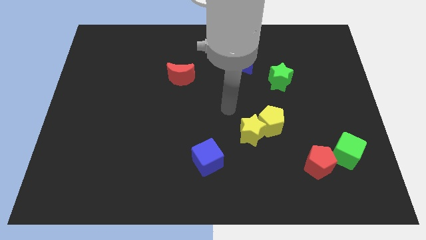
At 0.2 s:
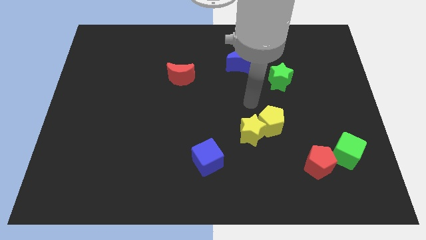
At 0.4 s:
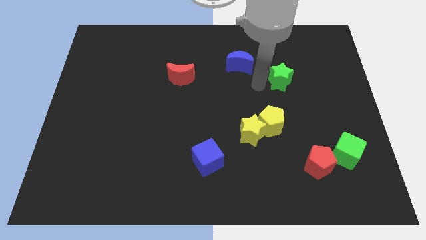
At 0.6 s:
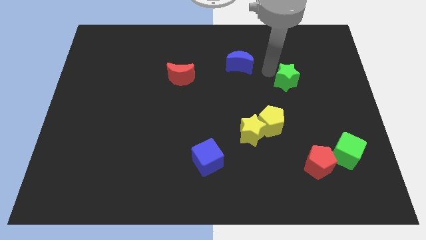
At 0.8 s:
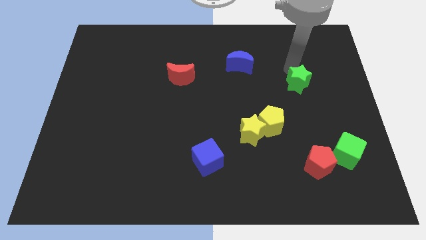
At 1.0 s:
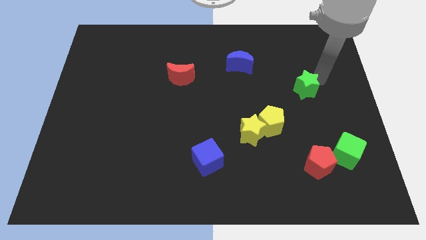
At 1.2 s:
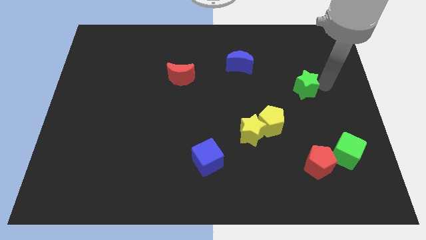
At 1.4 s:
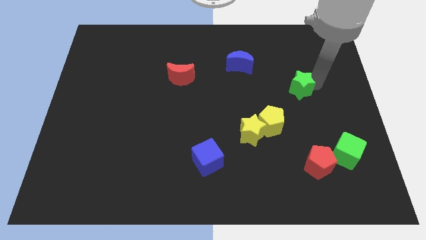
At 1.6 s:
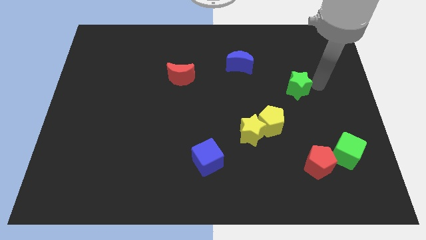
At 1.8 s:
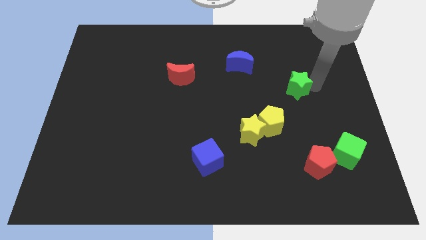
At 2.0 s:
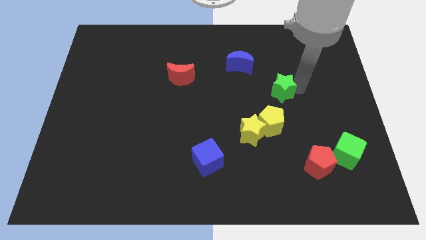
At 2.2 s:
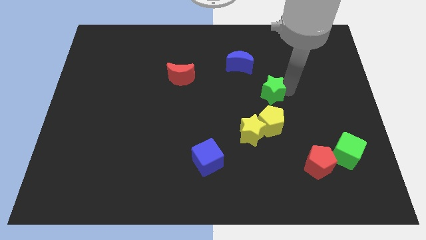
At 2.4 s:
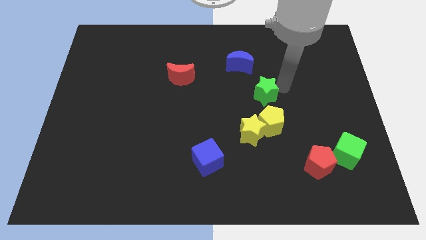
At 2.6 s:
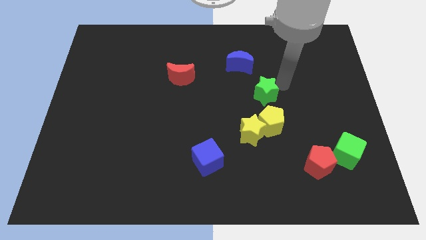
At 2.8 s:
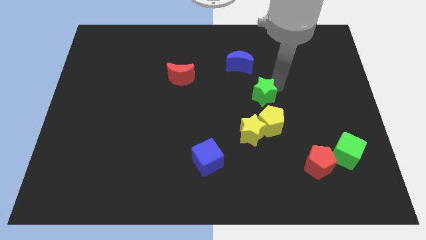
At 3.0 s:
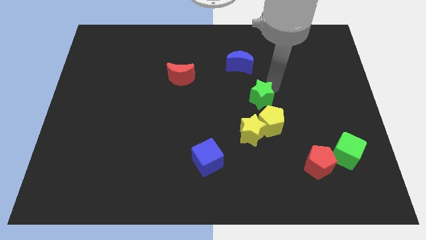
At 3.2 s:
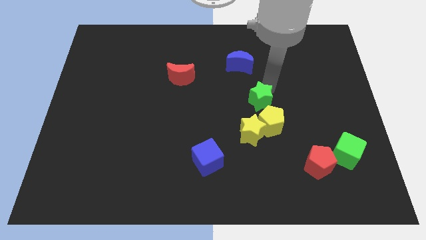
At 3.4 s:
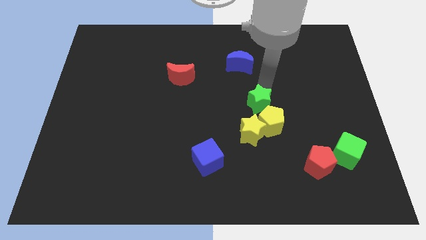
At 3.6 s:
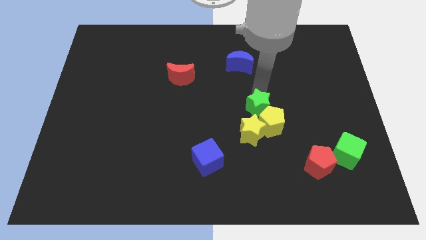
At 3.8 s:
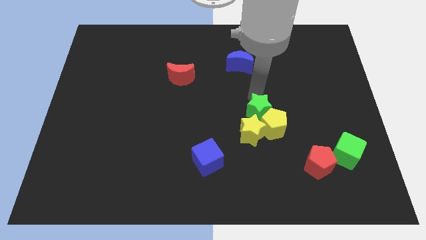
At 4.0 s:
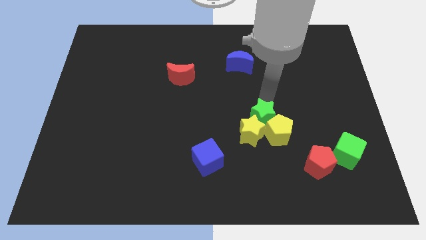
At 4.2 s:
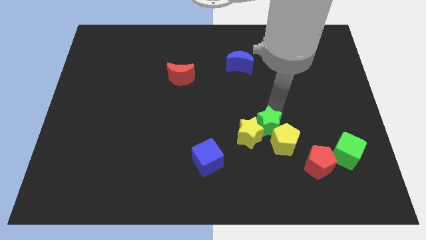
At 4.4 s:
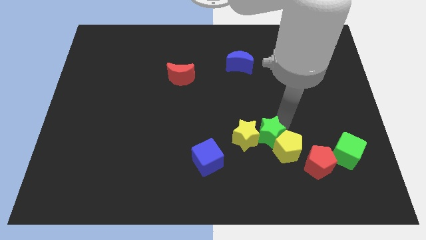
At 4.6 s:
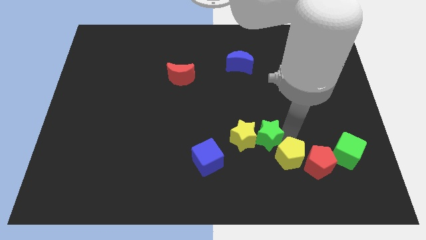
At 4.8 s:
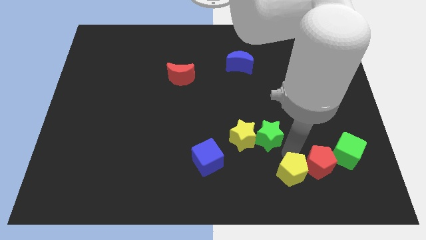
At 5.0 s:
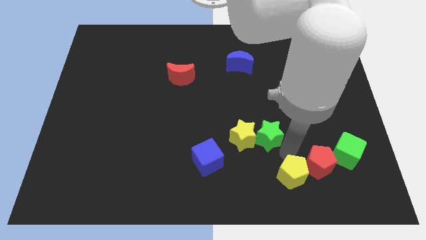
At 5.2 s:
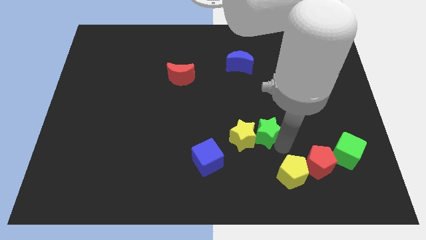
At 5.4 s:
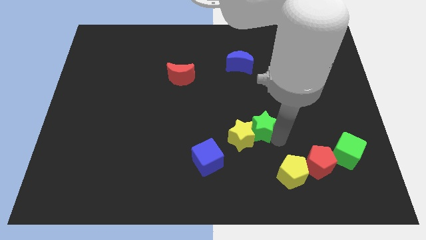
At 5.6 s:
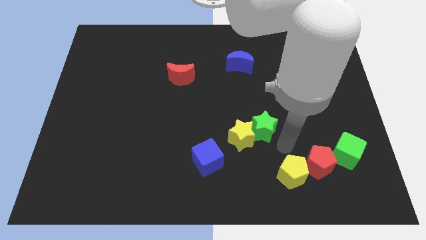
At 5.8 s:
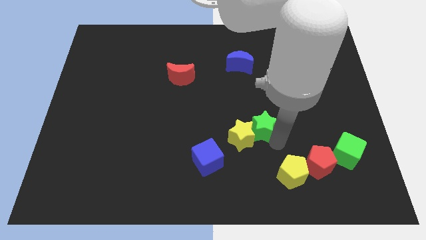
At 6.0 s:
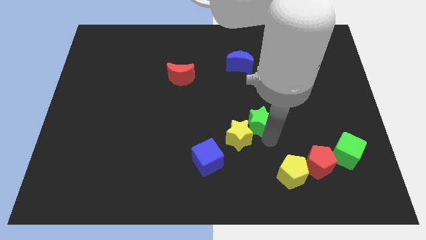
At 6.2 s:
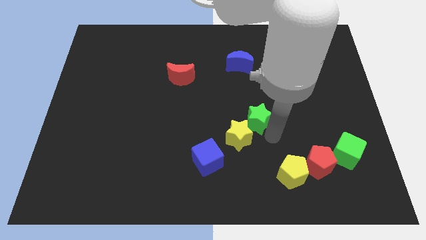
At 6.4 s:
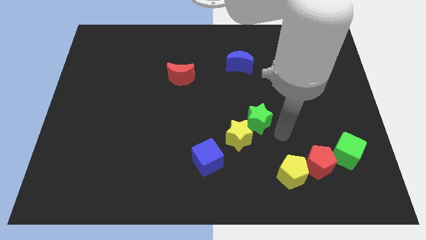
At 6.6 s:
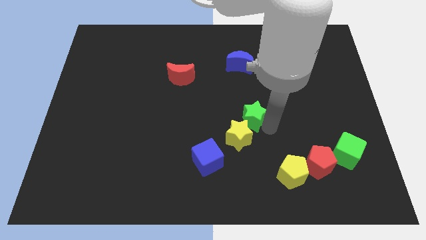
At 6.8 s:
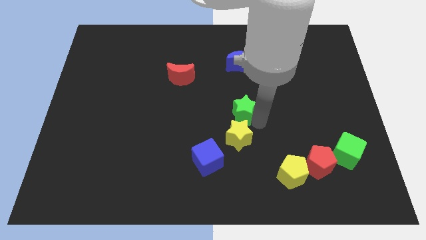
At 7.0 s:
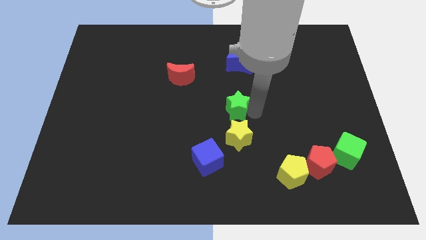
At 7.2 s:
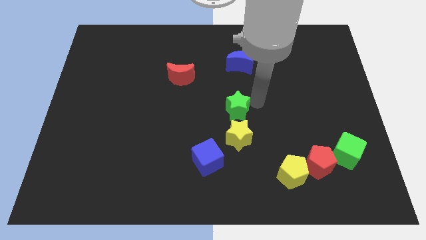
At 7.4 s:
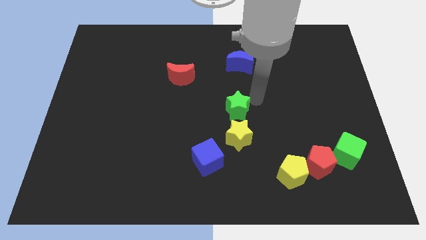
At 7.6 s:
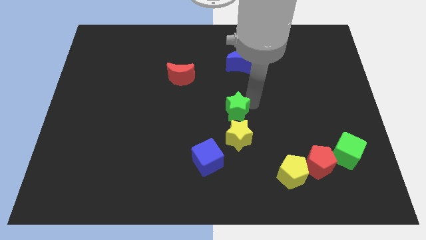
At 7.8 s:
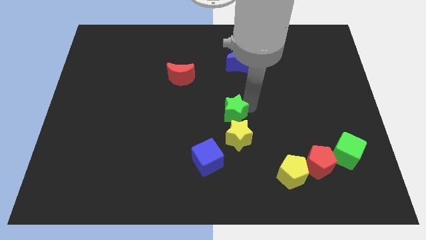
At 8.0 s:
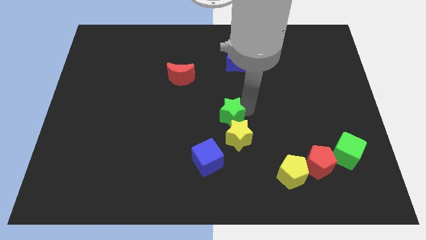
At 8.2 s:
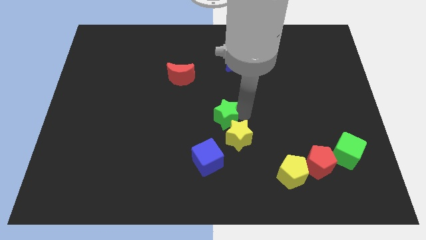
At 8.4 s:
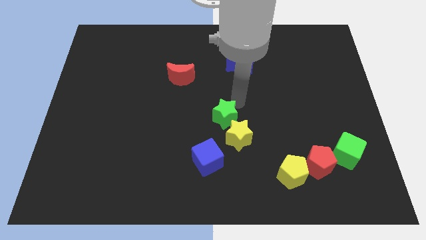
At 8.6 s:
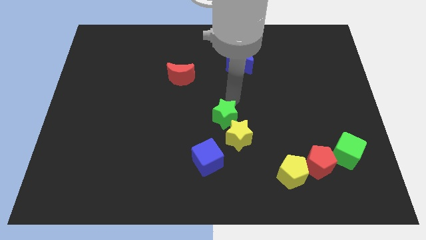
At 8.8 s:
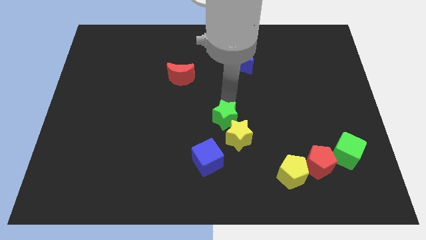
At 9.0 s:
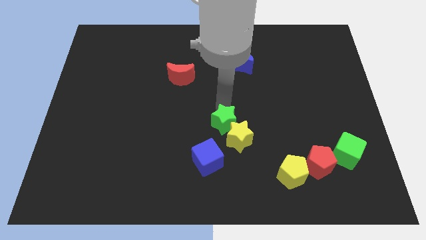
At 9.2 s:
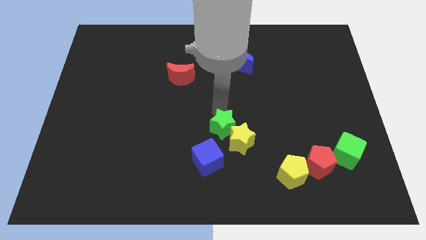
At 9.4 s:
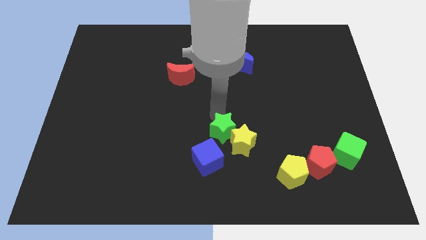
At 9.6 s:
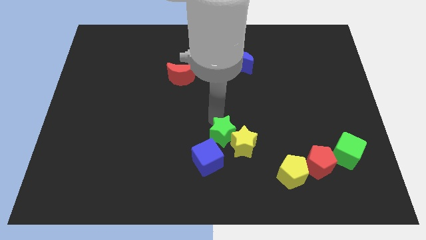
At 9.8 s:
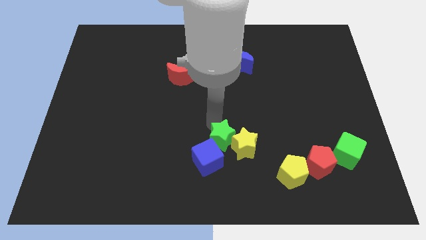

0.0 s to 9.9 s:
move the green star to the blue cube

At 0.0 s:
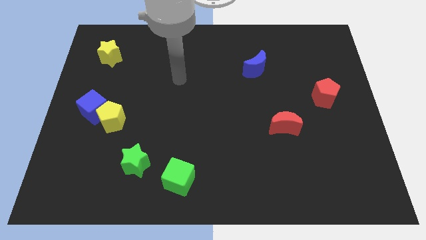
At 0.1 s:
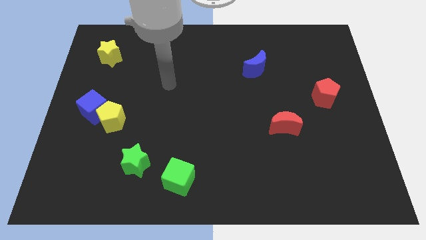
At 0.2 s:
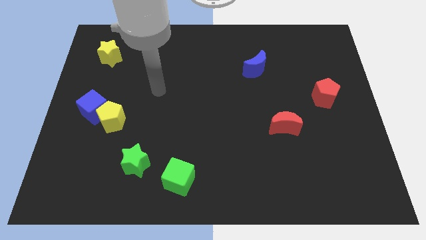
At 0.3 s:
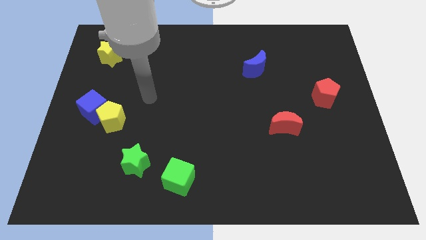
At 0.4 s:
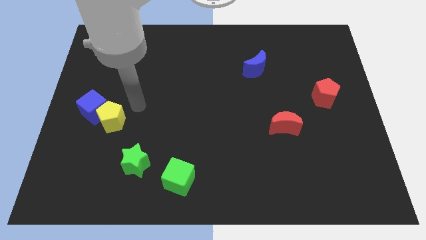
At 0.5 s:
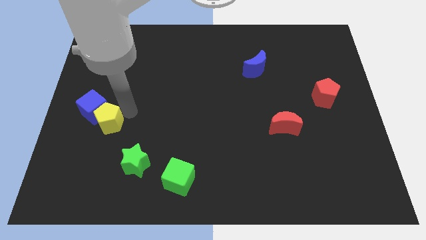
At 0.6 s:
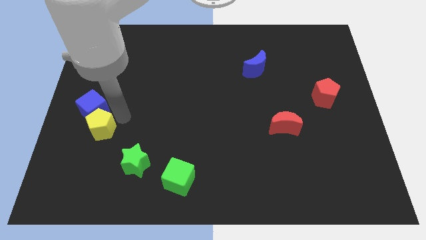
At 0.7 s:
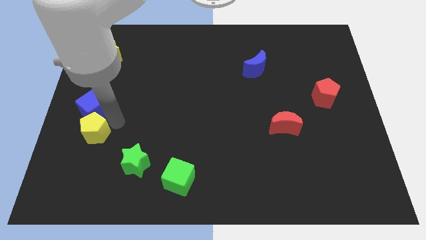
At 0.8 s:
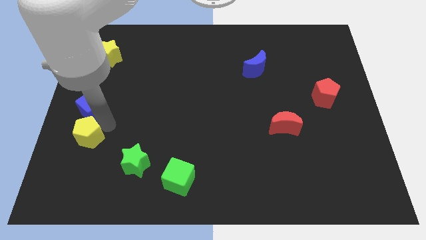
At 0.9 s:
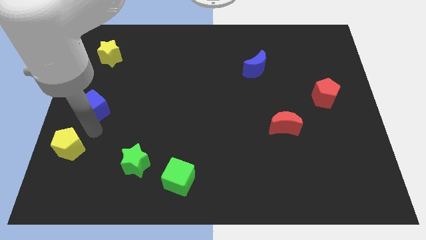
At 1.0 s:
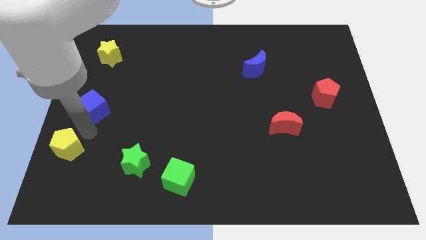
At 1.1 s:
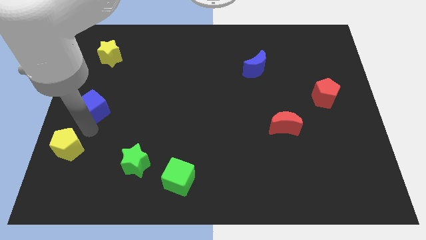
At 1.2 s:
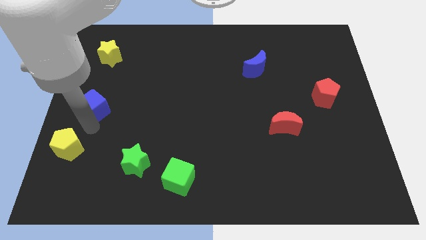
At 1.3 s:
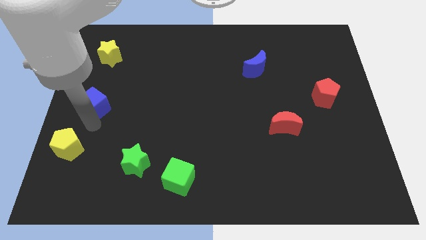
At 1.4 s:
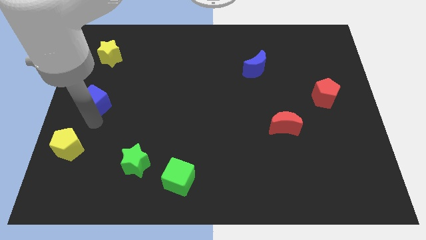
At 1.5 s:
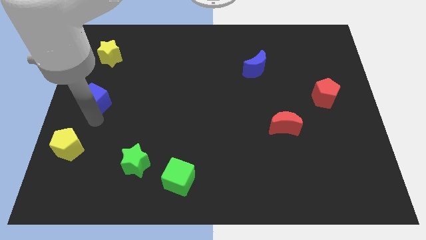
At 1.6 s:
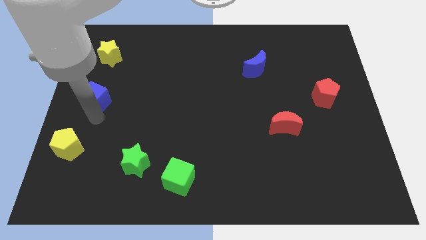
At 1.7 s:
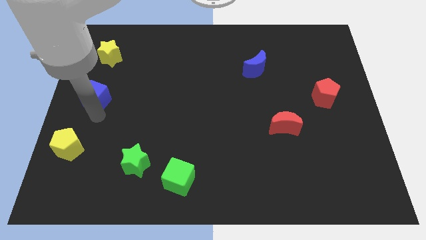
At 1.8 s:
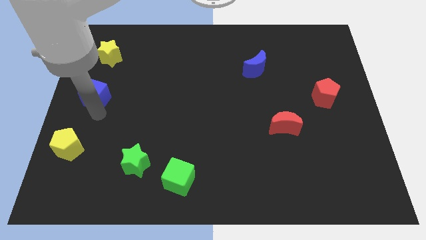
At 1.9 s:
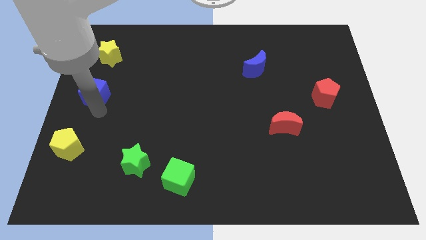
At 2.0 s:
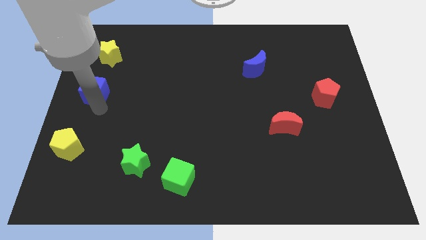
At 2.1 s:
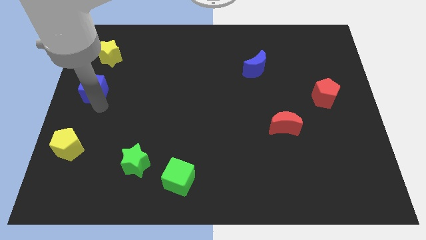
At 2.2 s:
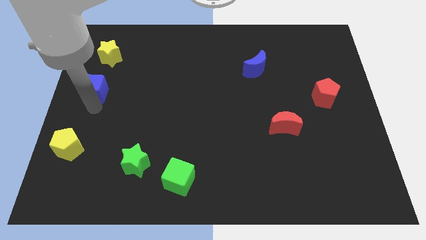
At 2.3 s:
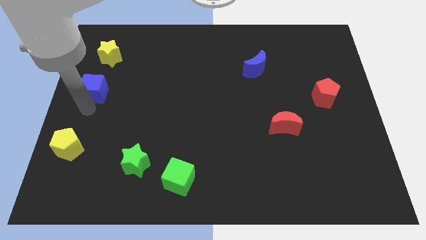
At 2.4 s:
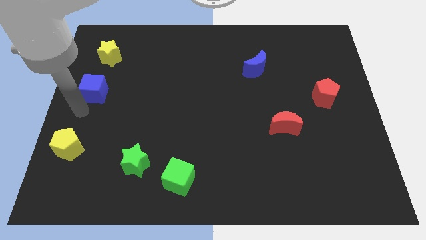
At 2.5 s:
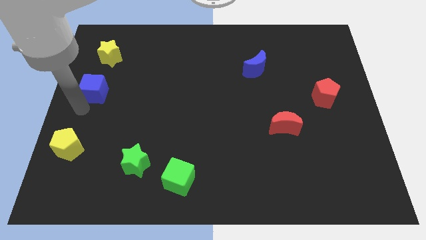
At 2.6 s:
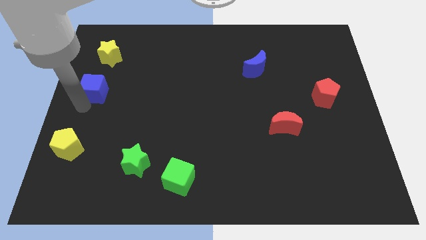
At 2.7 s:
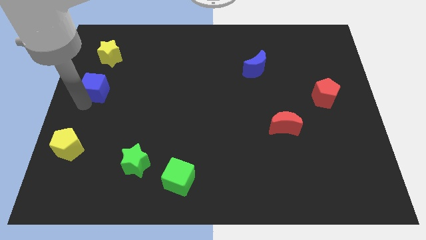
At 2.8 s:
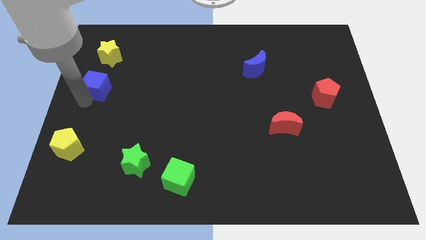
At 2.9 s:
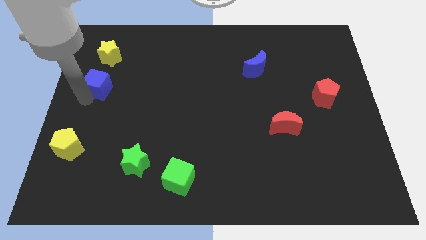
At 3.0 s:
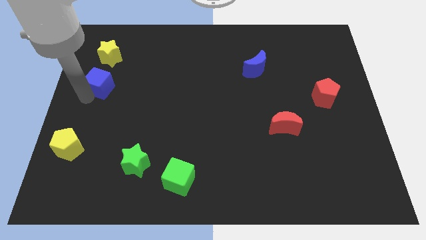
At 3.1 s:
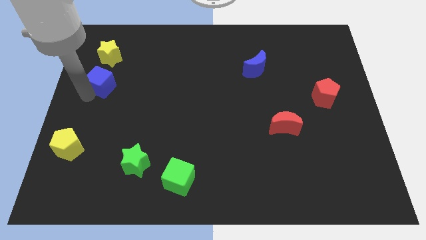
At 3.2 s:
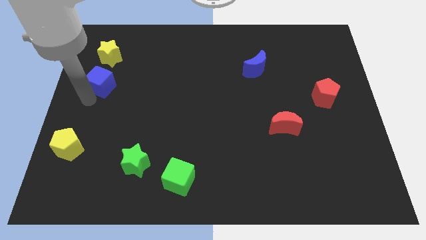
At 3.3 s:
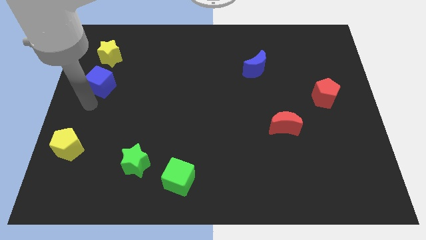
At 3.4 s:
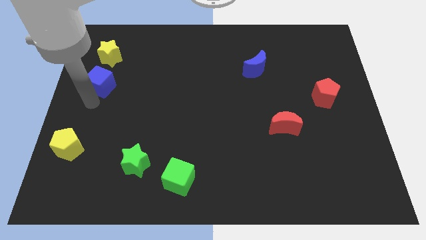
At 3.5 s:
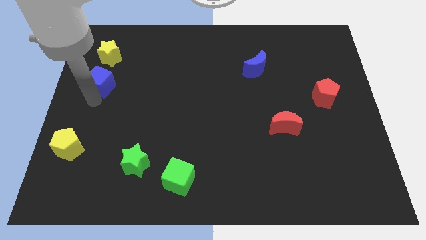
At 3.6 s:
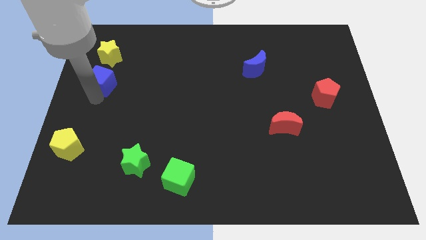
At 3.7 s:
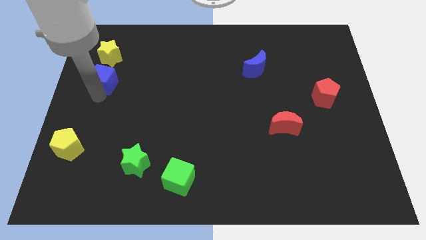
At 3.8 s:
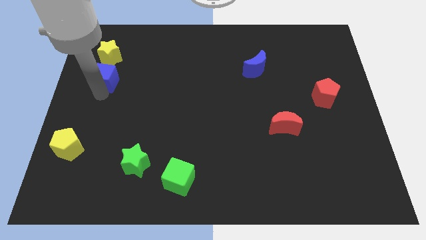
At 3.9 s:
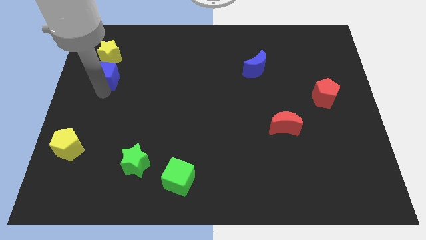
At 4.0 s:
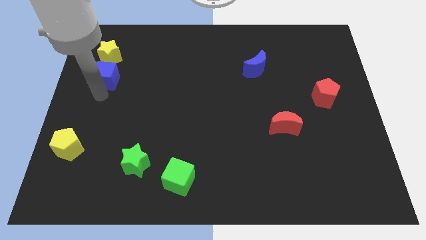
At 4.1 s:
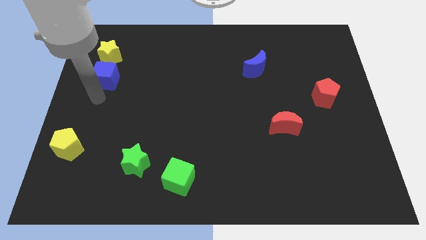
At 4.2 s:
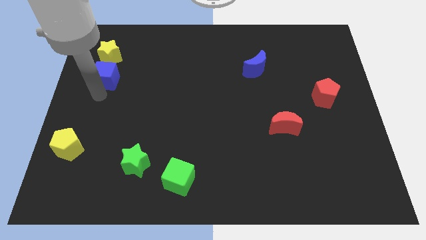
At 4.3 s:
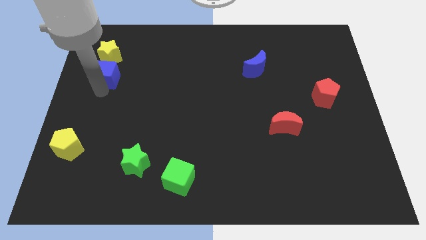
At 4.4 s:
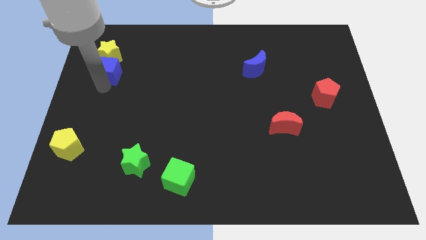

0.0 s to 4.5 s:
slide the blue cube next to the yellow star
